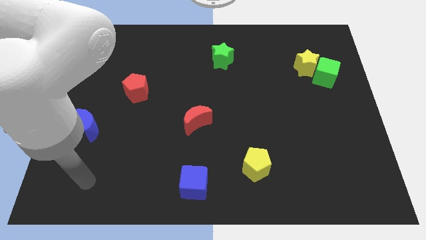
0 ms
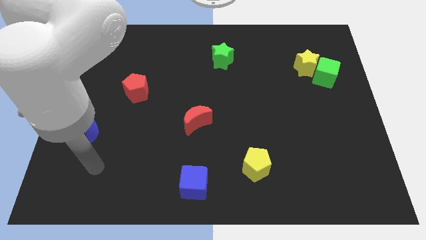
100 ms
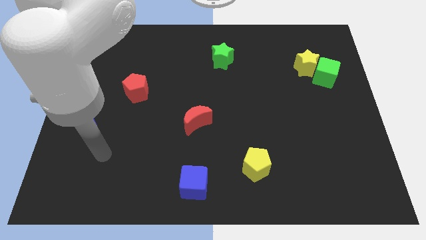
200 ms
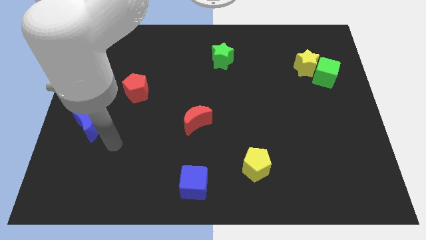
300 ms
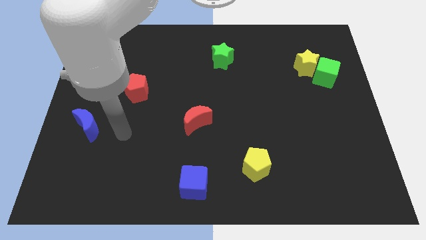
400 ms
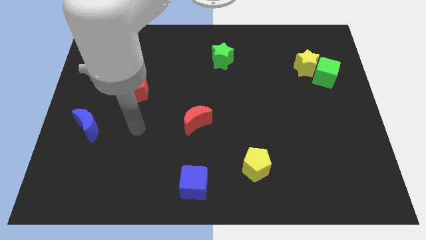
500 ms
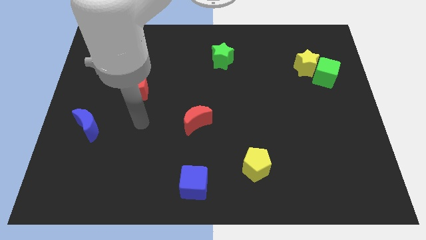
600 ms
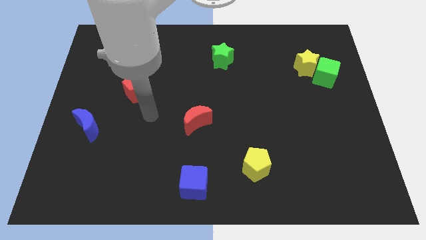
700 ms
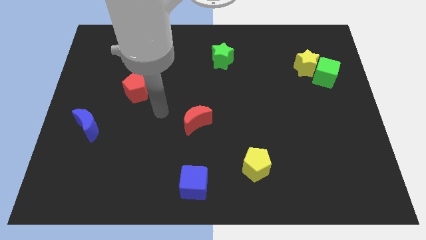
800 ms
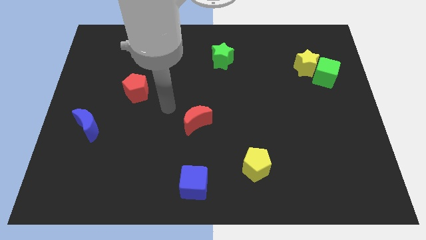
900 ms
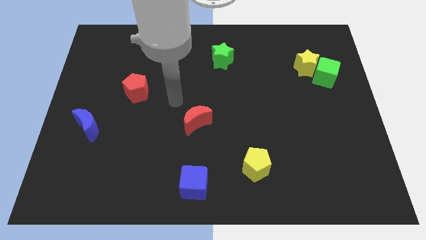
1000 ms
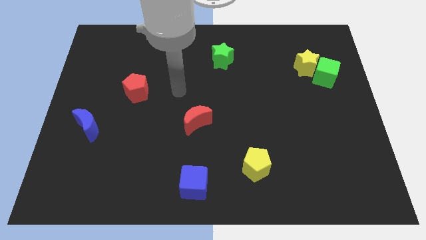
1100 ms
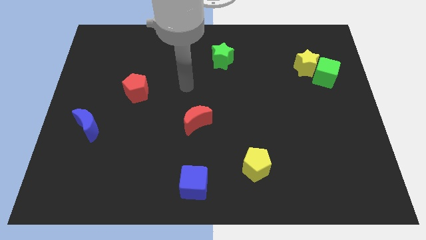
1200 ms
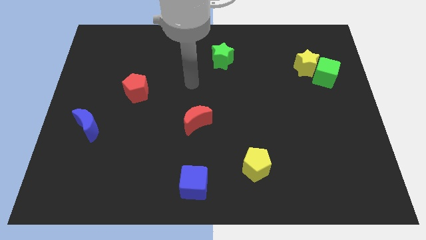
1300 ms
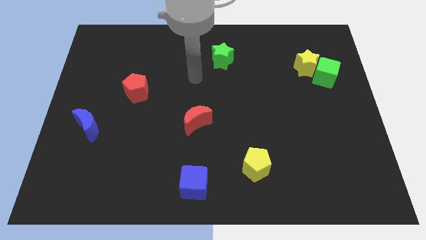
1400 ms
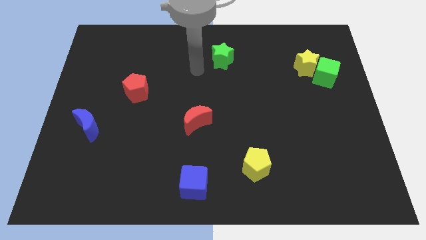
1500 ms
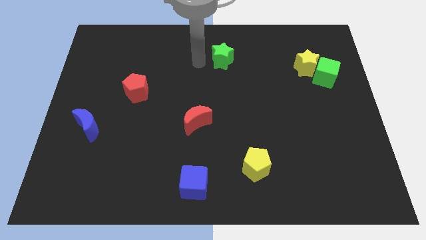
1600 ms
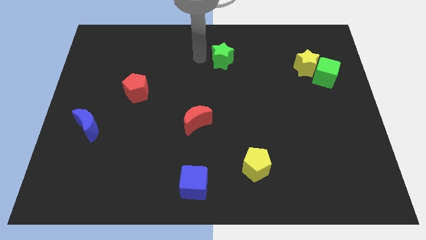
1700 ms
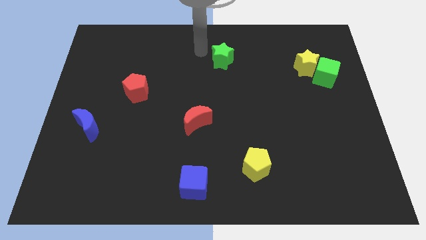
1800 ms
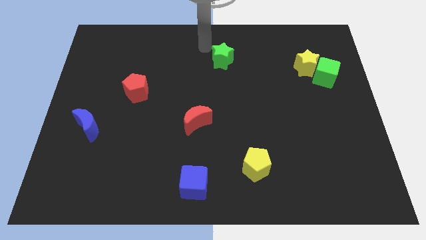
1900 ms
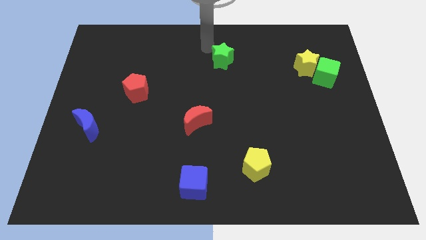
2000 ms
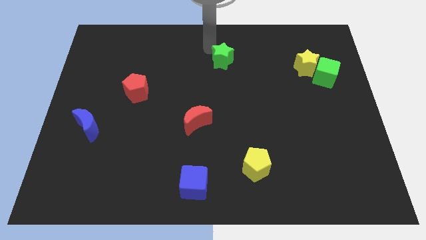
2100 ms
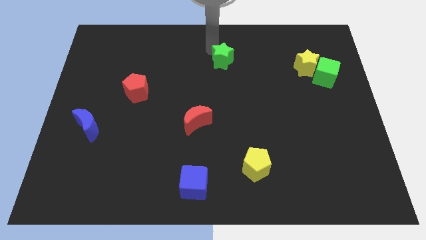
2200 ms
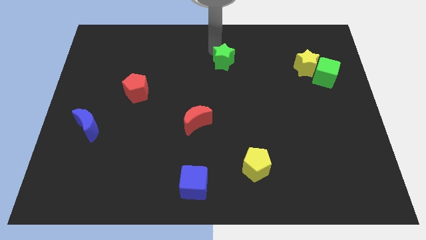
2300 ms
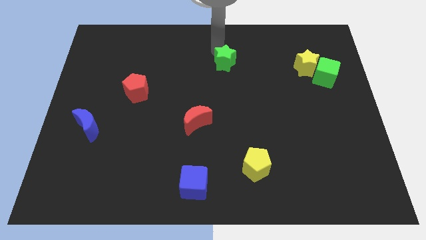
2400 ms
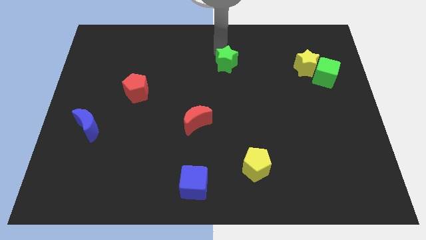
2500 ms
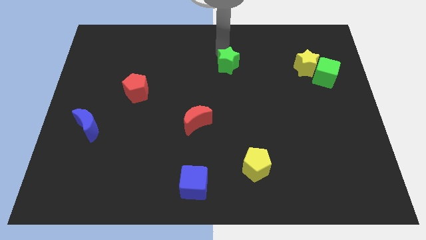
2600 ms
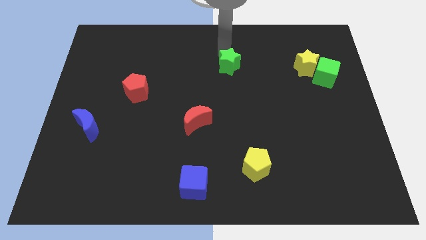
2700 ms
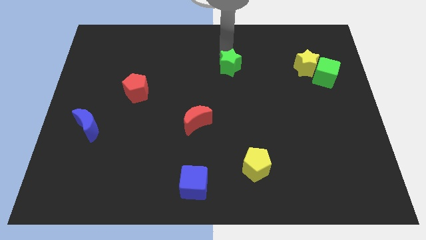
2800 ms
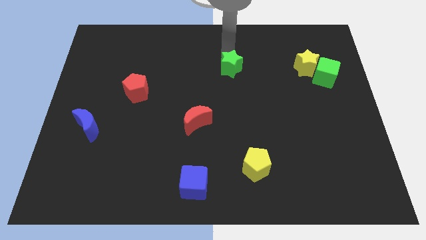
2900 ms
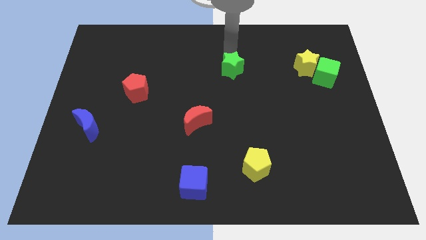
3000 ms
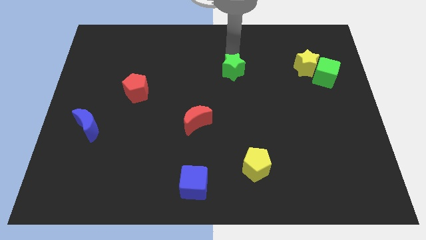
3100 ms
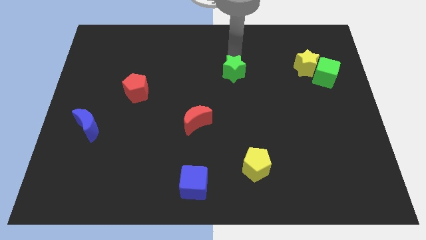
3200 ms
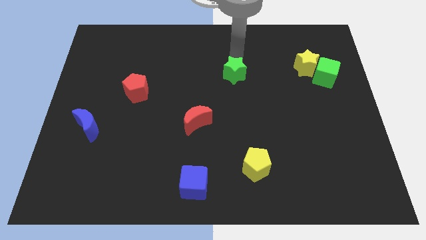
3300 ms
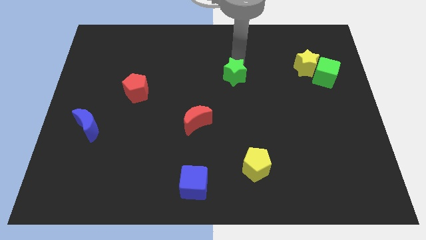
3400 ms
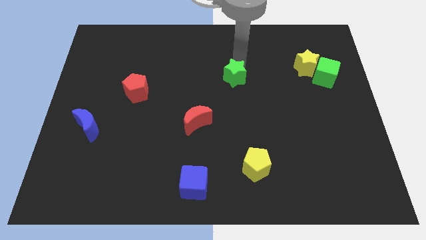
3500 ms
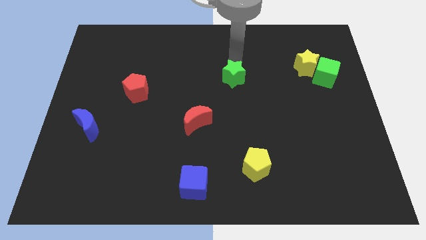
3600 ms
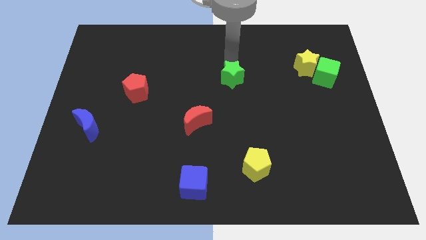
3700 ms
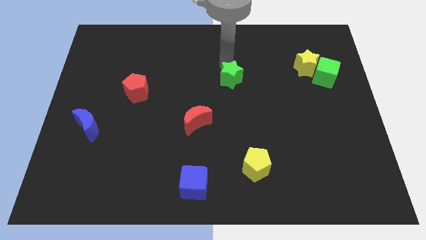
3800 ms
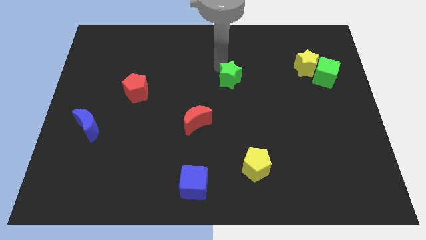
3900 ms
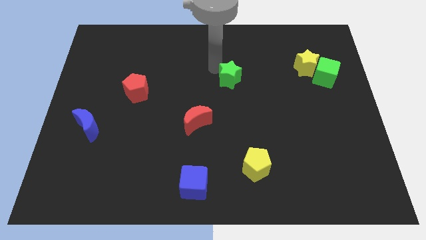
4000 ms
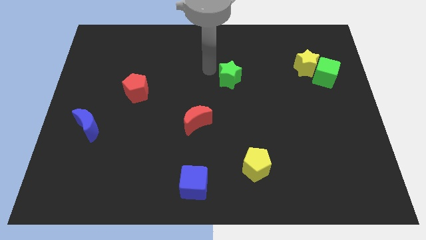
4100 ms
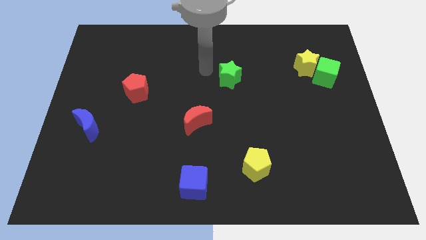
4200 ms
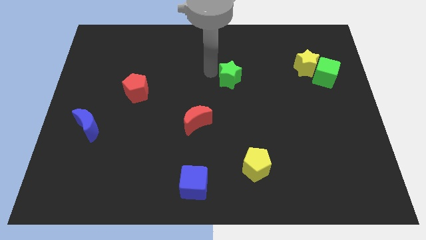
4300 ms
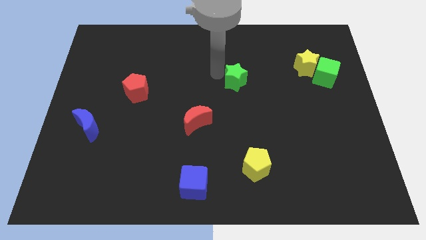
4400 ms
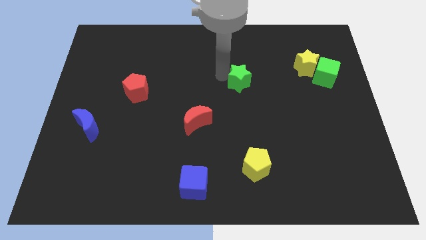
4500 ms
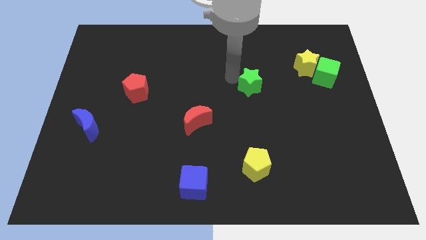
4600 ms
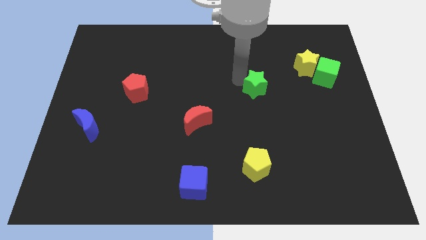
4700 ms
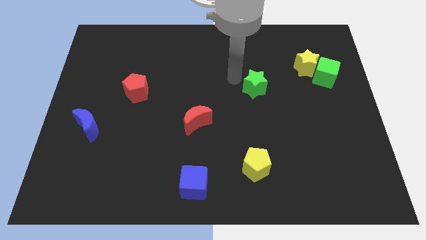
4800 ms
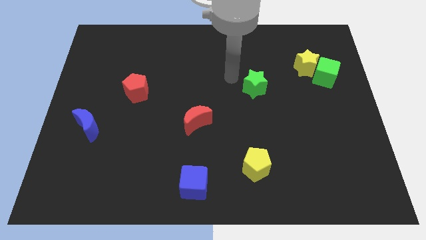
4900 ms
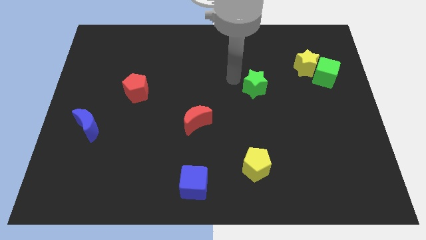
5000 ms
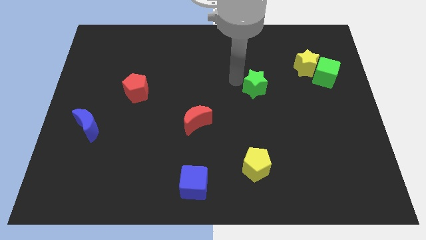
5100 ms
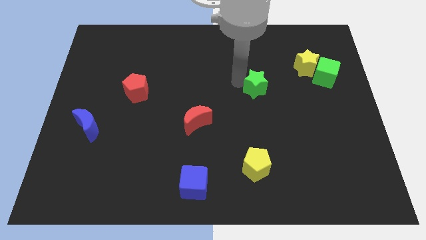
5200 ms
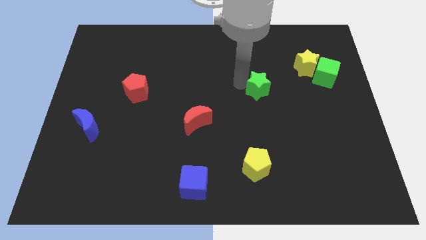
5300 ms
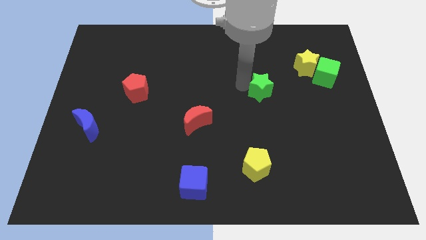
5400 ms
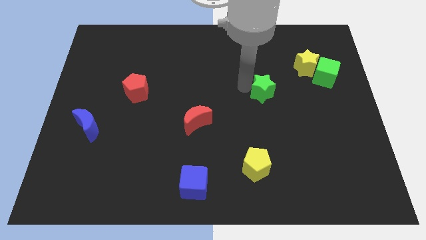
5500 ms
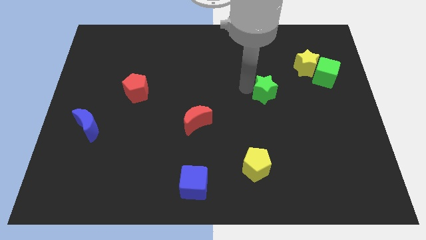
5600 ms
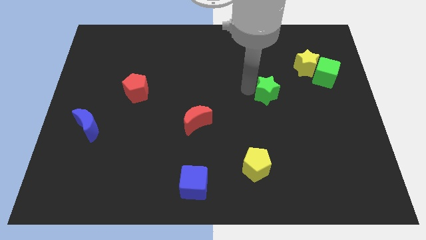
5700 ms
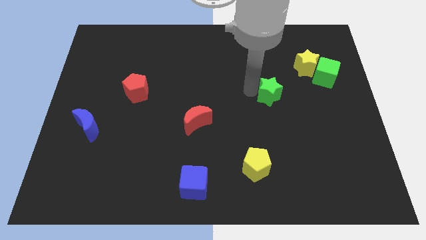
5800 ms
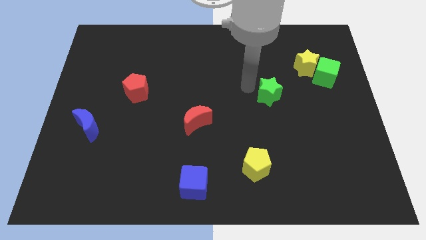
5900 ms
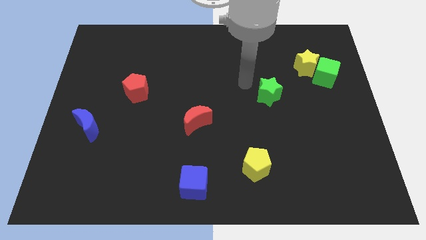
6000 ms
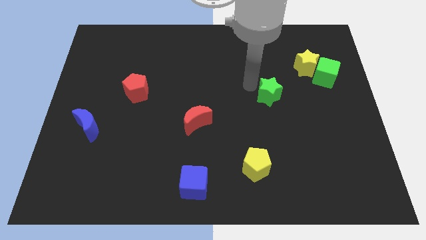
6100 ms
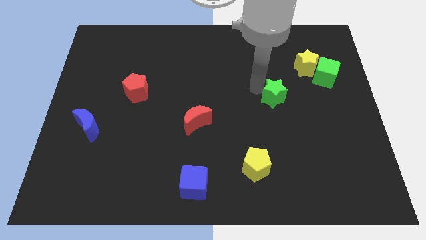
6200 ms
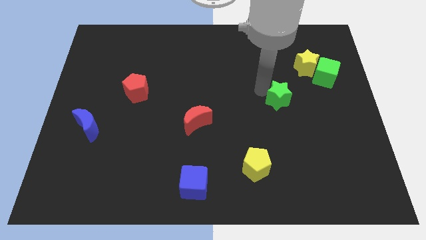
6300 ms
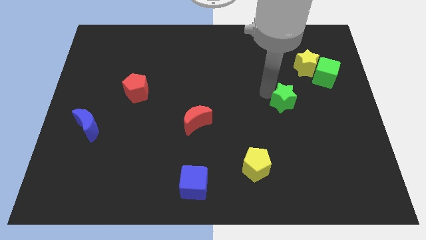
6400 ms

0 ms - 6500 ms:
slide the green star down and right

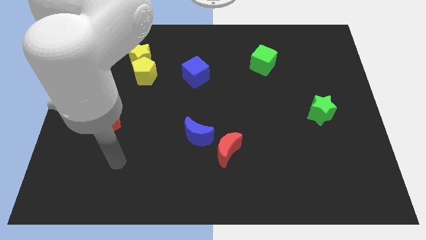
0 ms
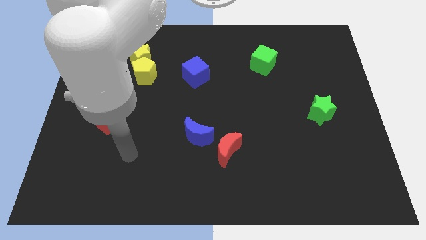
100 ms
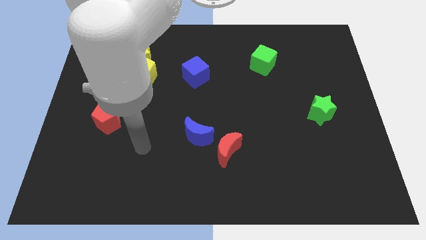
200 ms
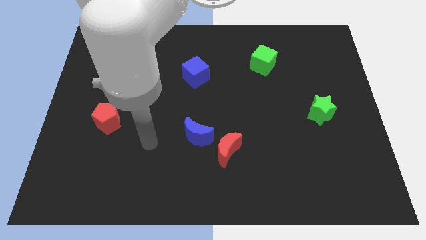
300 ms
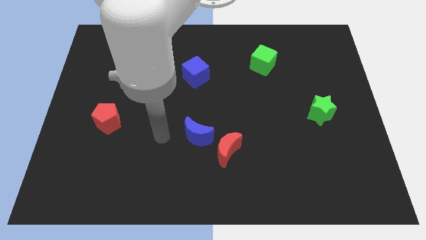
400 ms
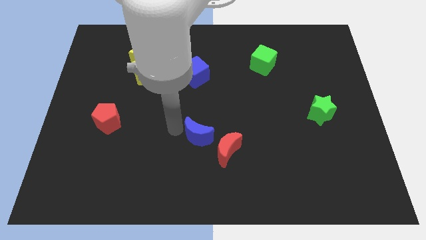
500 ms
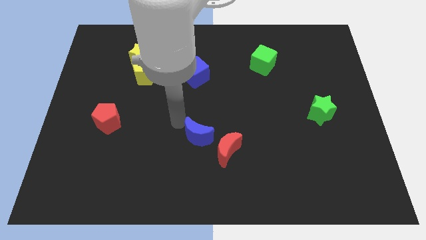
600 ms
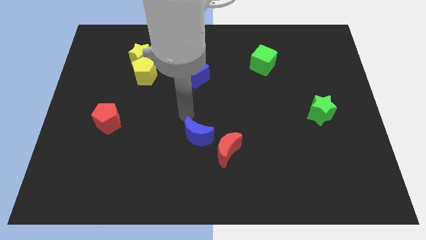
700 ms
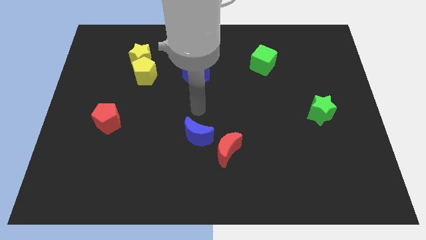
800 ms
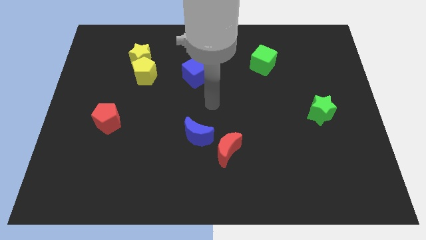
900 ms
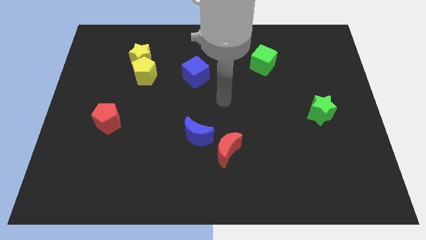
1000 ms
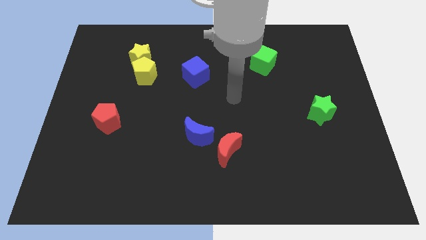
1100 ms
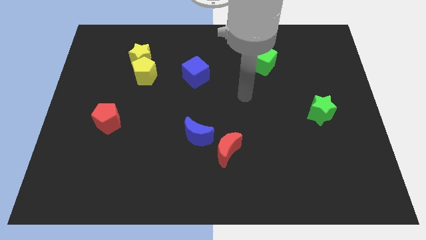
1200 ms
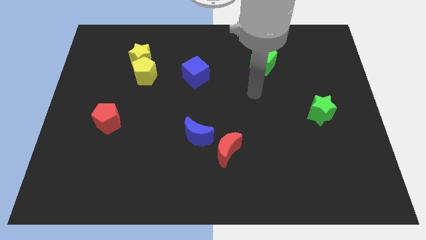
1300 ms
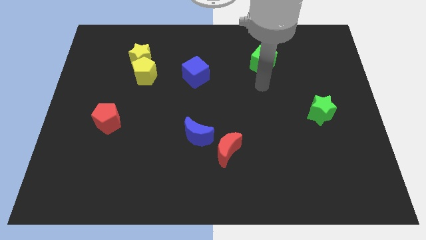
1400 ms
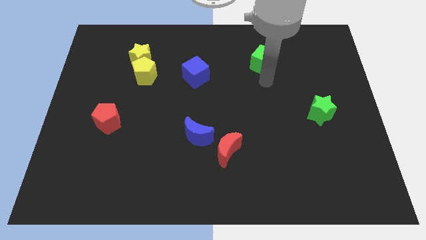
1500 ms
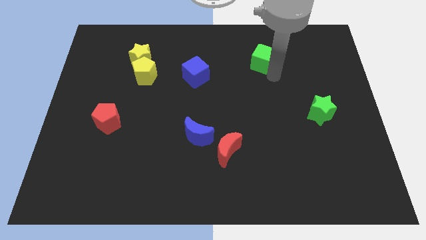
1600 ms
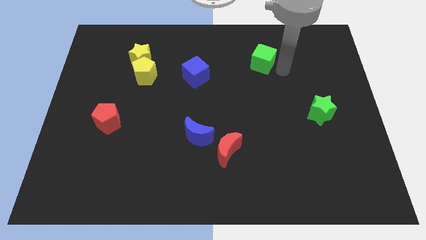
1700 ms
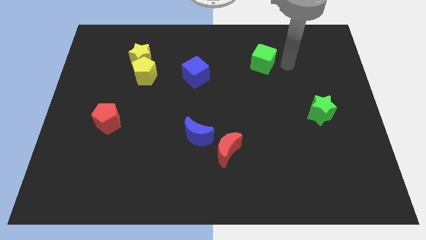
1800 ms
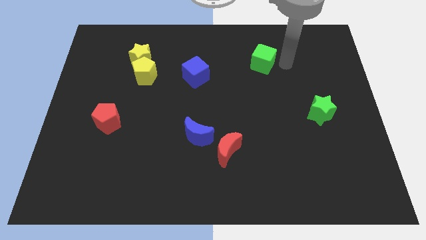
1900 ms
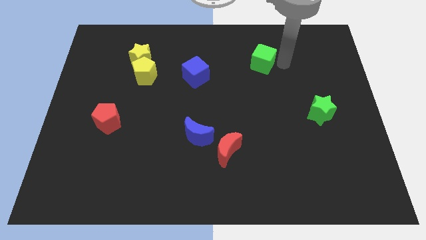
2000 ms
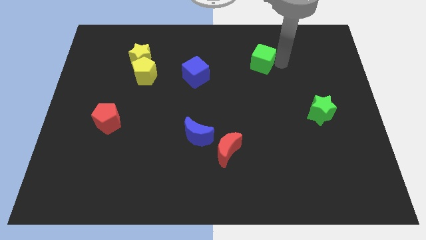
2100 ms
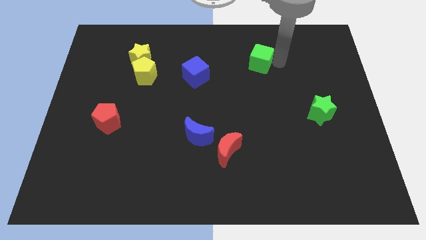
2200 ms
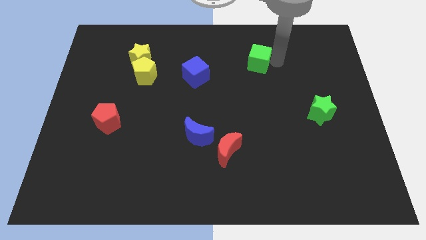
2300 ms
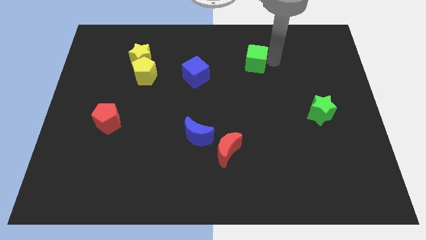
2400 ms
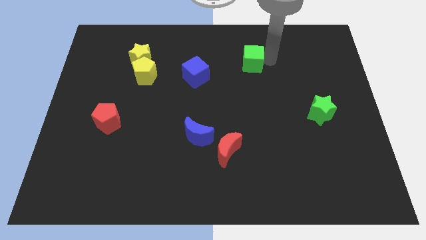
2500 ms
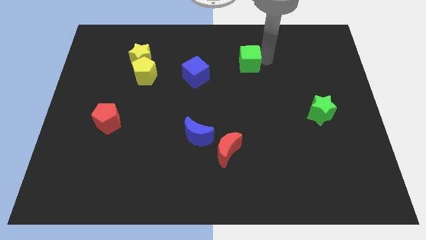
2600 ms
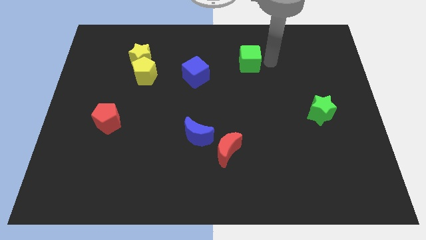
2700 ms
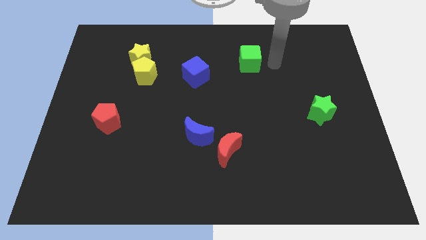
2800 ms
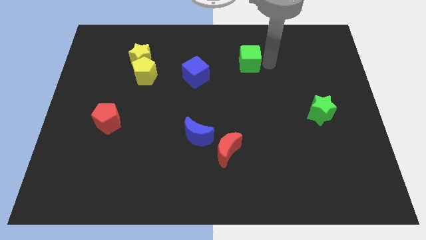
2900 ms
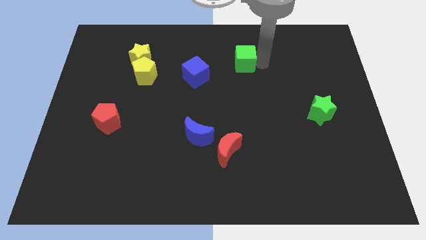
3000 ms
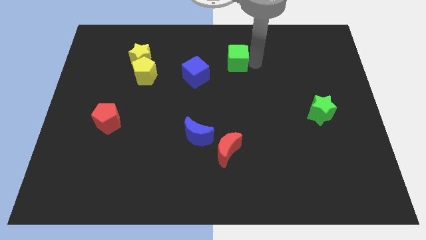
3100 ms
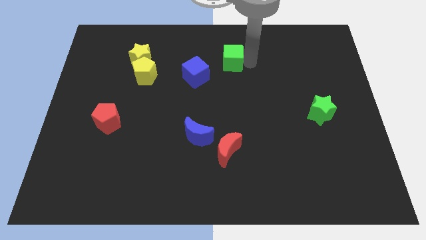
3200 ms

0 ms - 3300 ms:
move the green cube to the left a bit
